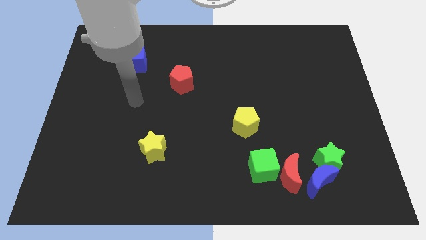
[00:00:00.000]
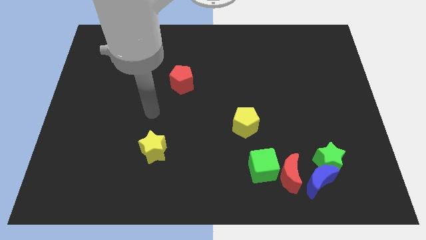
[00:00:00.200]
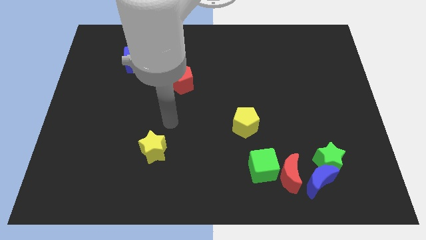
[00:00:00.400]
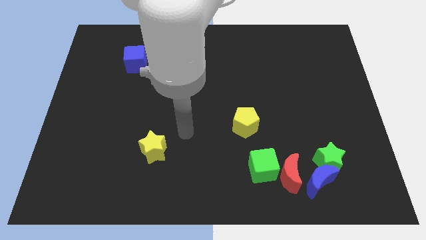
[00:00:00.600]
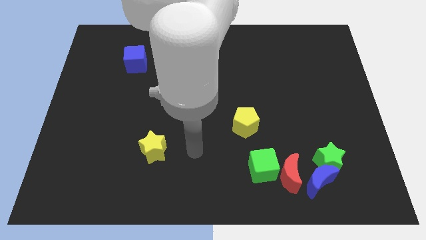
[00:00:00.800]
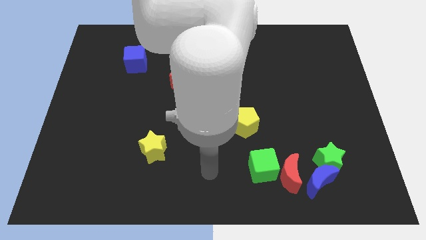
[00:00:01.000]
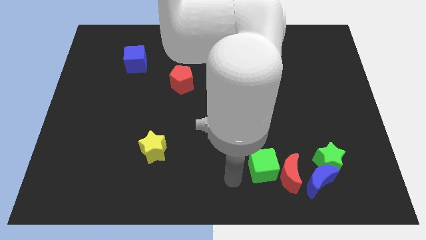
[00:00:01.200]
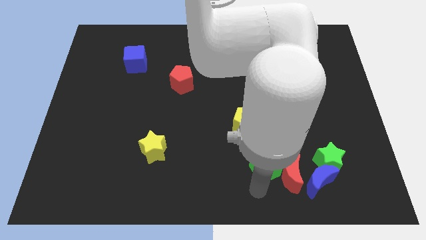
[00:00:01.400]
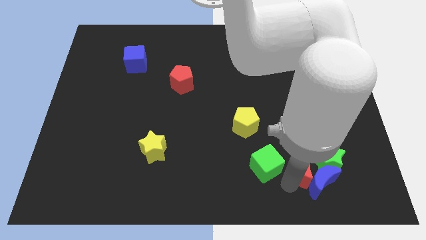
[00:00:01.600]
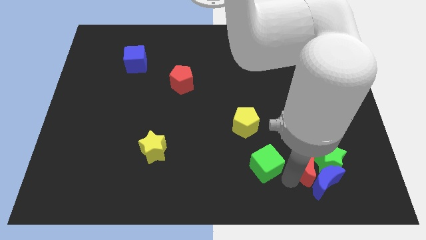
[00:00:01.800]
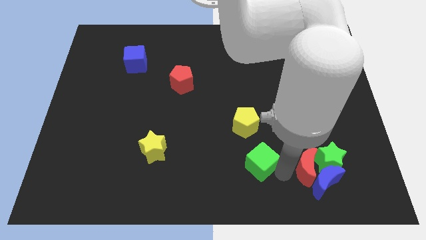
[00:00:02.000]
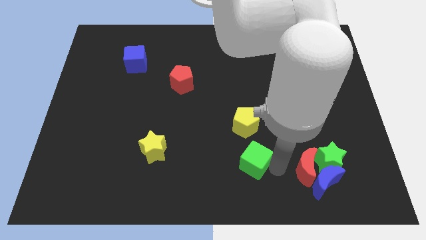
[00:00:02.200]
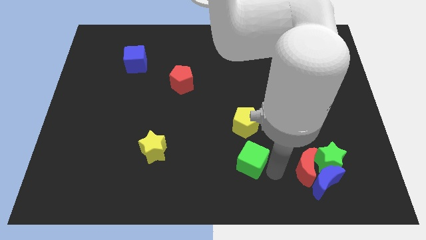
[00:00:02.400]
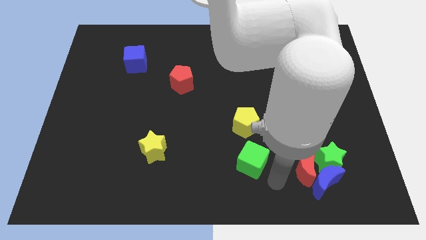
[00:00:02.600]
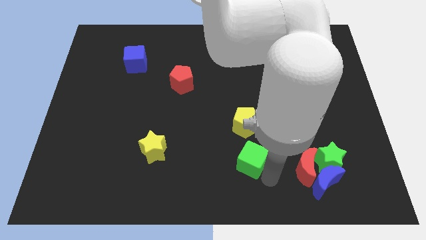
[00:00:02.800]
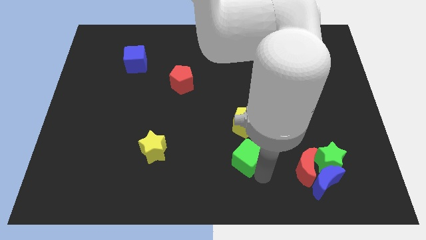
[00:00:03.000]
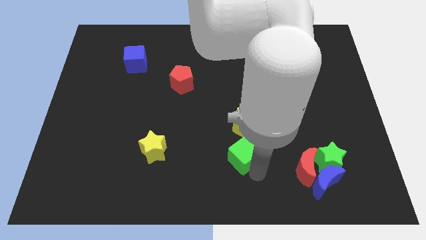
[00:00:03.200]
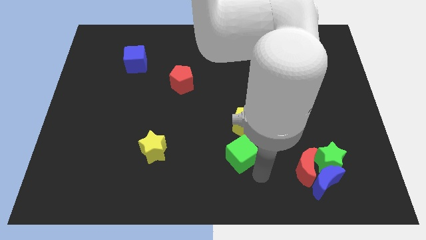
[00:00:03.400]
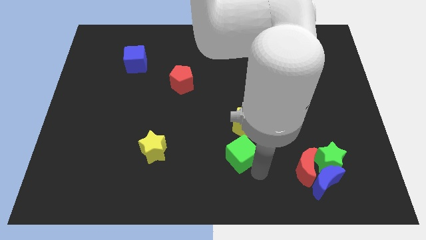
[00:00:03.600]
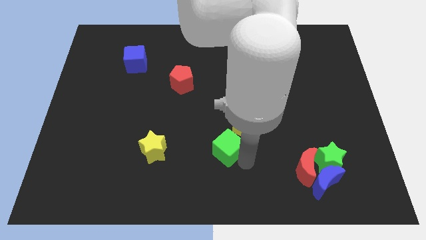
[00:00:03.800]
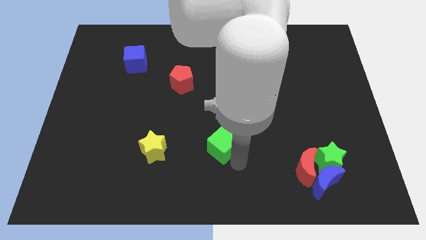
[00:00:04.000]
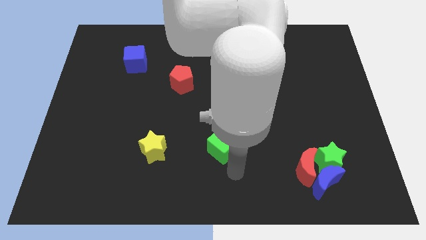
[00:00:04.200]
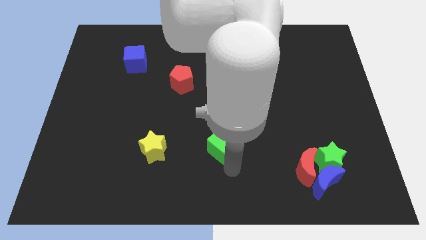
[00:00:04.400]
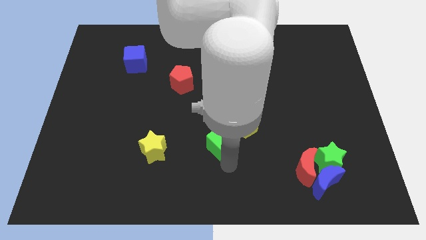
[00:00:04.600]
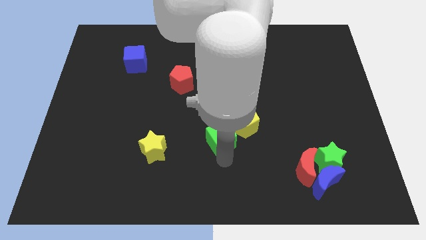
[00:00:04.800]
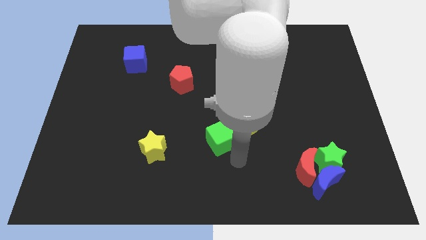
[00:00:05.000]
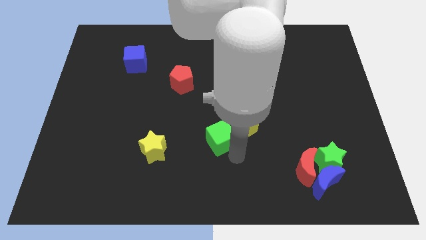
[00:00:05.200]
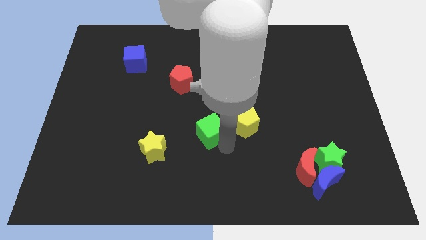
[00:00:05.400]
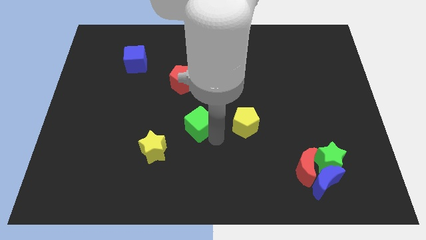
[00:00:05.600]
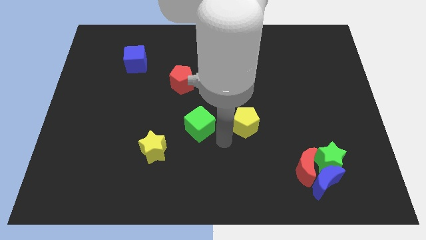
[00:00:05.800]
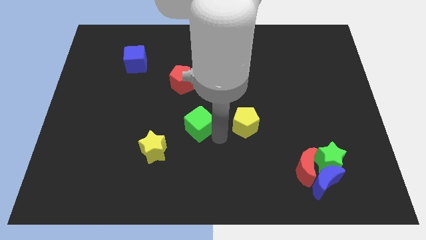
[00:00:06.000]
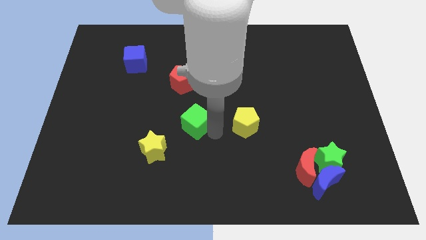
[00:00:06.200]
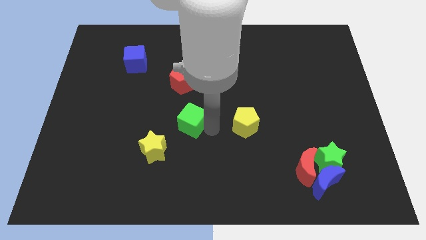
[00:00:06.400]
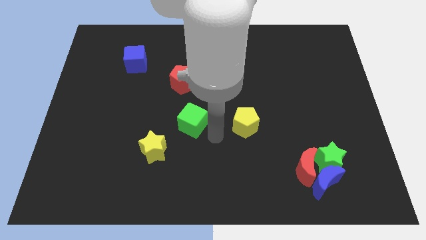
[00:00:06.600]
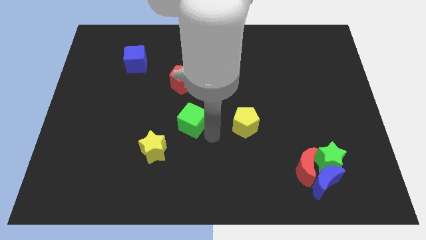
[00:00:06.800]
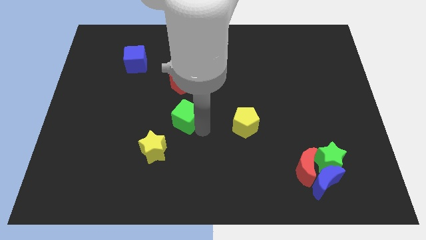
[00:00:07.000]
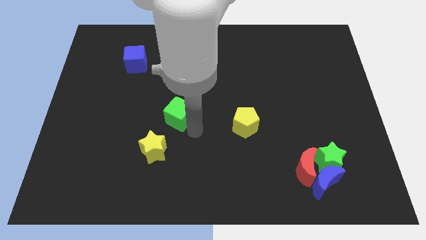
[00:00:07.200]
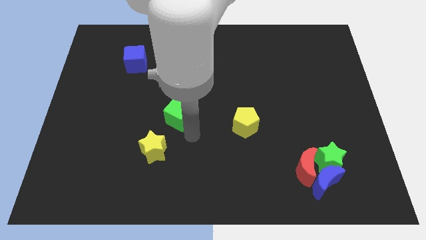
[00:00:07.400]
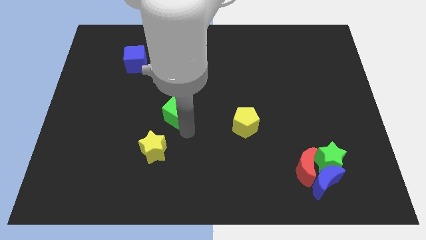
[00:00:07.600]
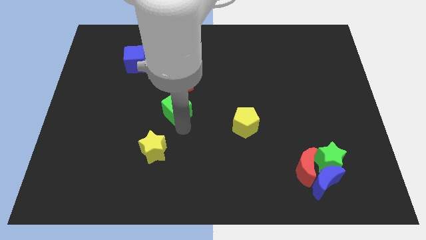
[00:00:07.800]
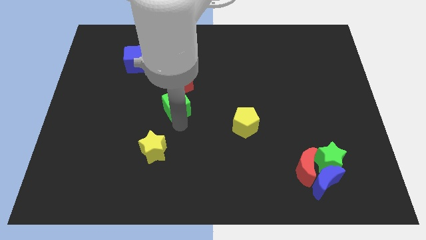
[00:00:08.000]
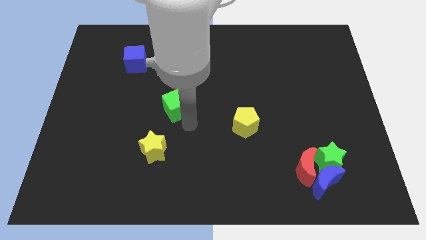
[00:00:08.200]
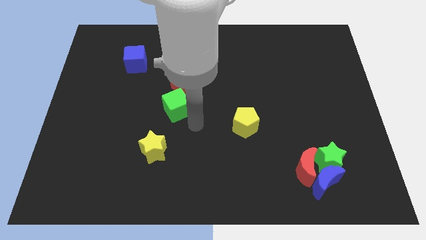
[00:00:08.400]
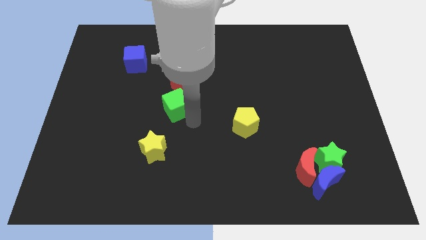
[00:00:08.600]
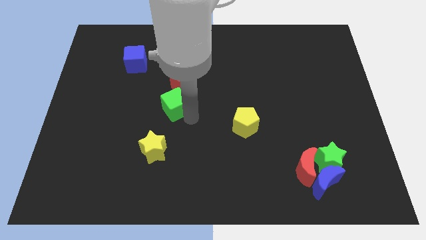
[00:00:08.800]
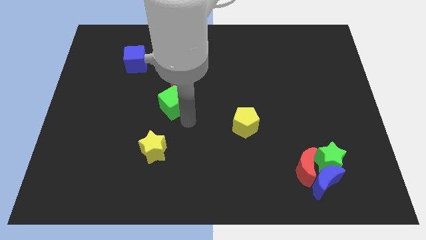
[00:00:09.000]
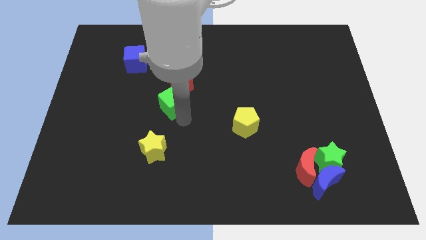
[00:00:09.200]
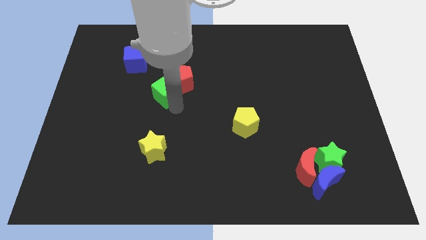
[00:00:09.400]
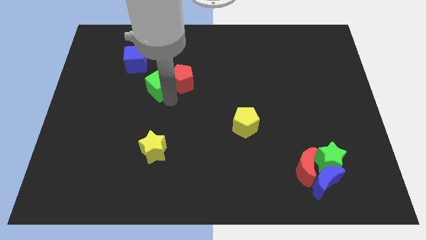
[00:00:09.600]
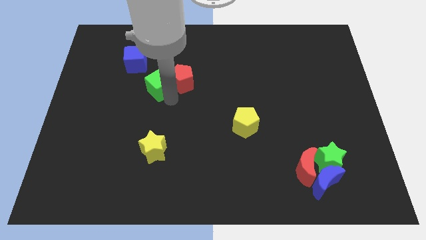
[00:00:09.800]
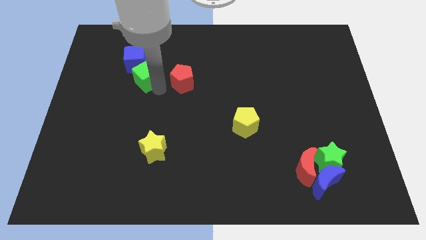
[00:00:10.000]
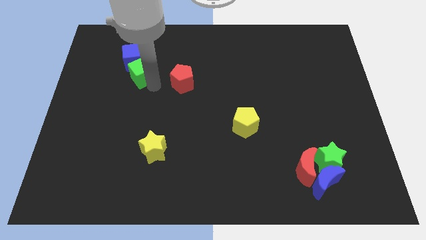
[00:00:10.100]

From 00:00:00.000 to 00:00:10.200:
put the green cube to the blue cube

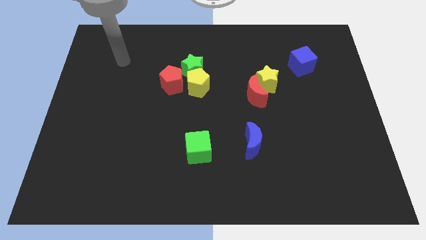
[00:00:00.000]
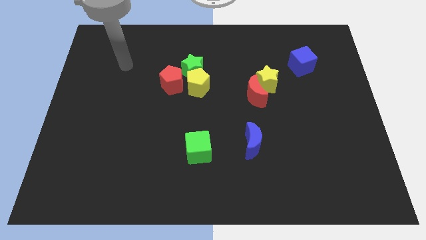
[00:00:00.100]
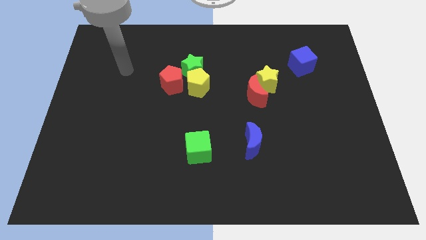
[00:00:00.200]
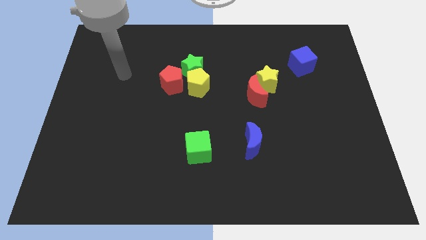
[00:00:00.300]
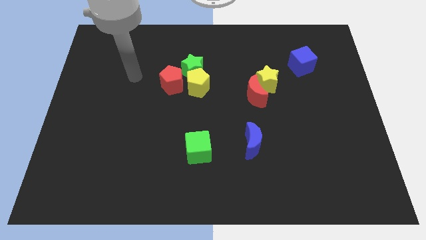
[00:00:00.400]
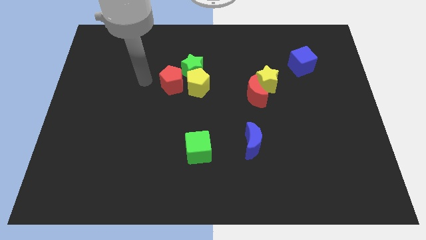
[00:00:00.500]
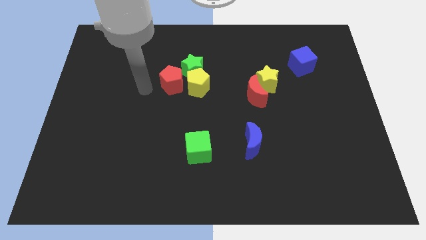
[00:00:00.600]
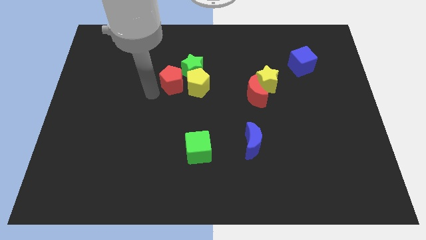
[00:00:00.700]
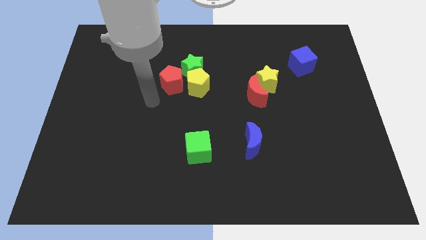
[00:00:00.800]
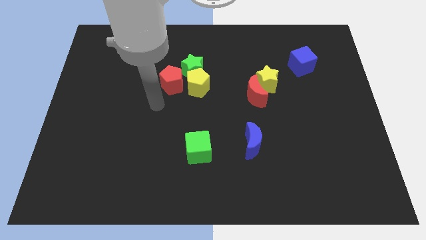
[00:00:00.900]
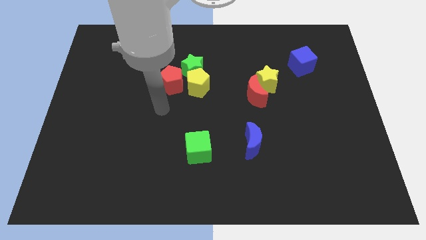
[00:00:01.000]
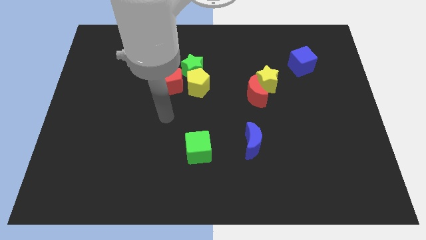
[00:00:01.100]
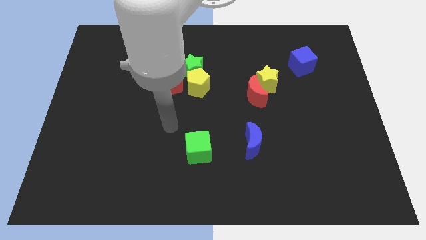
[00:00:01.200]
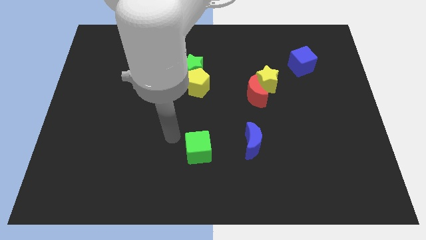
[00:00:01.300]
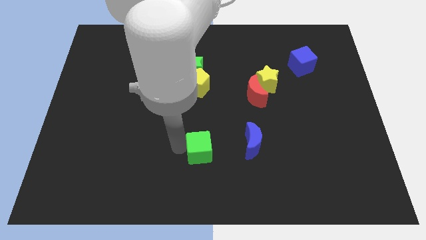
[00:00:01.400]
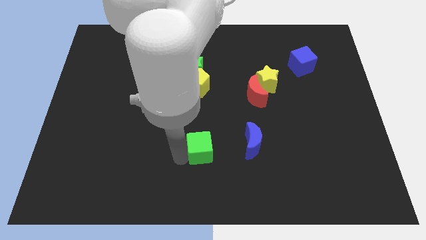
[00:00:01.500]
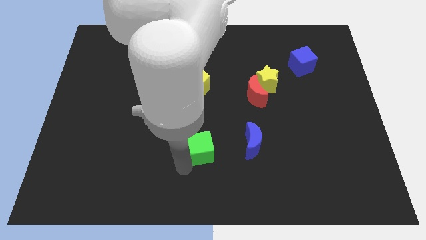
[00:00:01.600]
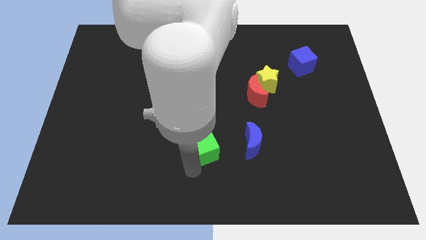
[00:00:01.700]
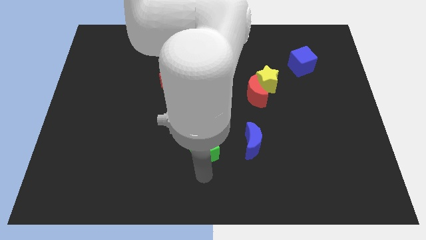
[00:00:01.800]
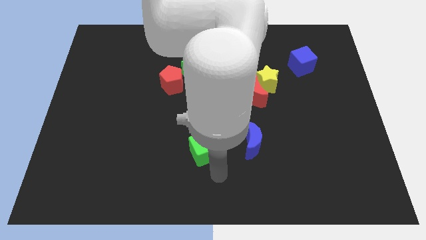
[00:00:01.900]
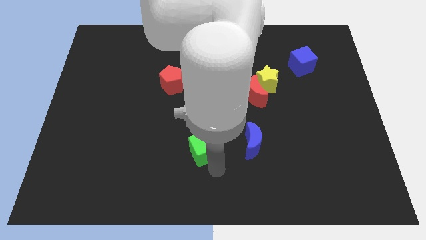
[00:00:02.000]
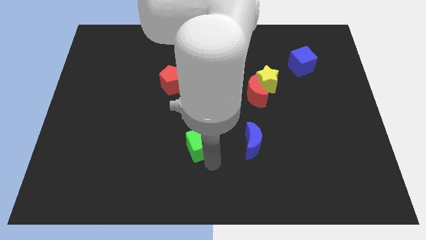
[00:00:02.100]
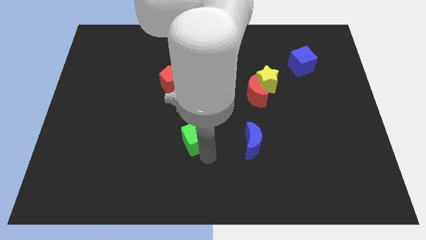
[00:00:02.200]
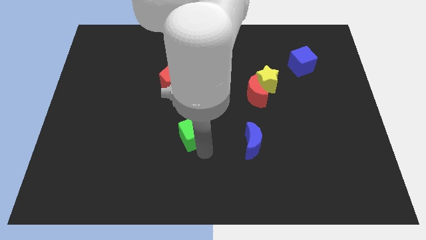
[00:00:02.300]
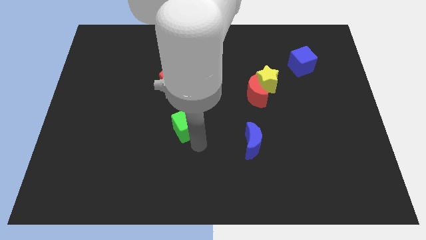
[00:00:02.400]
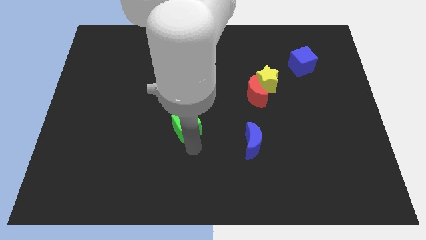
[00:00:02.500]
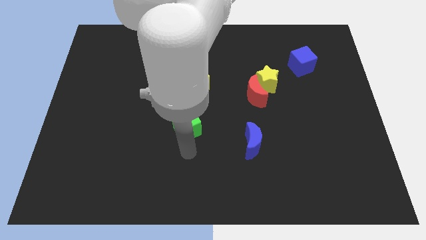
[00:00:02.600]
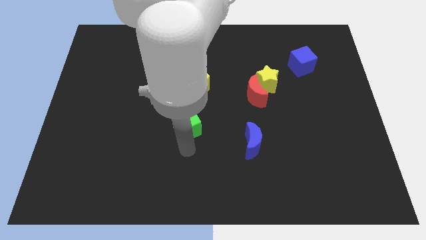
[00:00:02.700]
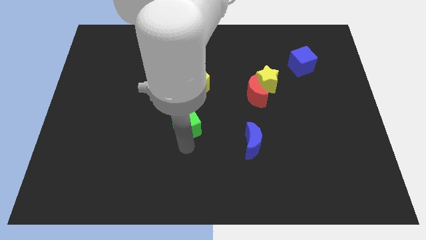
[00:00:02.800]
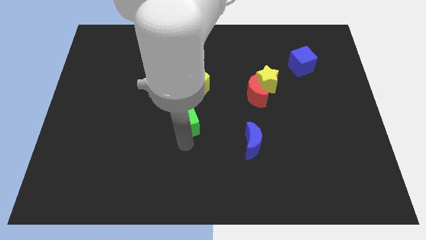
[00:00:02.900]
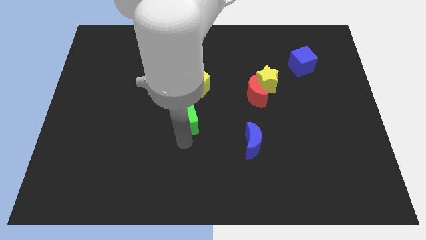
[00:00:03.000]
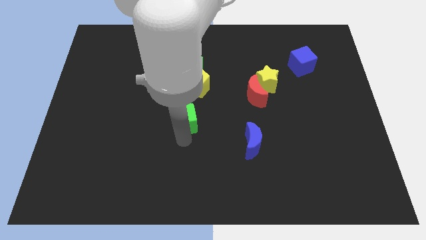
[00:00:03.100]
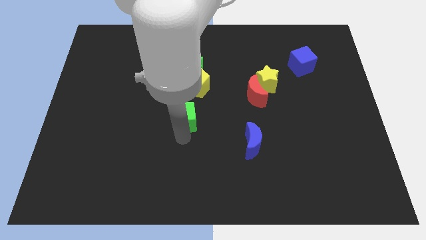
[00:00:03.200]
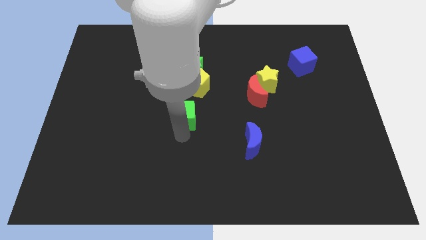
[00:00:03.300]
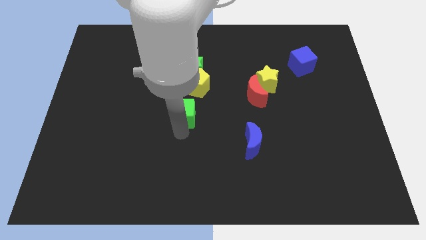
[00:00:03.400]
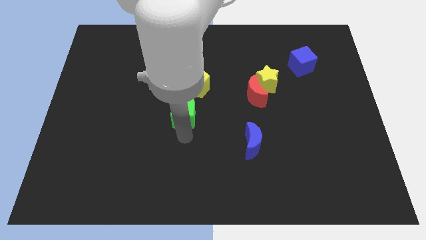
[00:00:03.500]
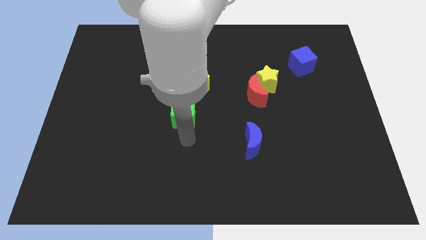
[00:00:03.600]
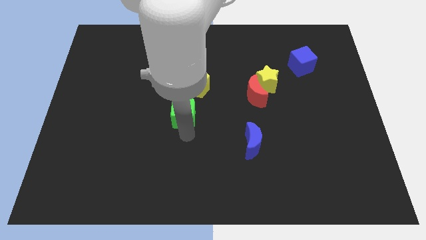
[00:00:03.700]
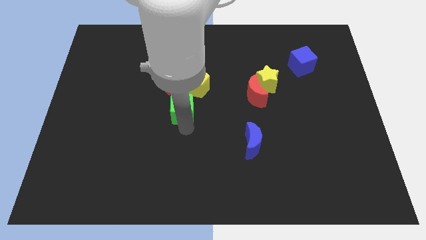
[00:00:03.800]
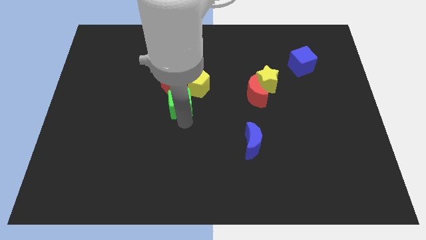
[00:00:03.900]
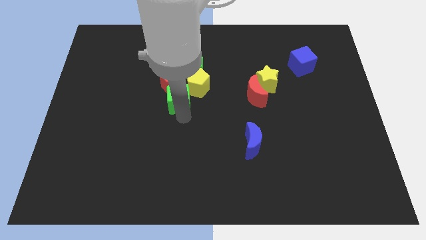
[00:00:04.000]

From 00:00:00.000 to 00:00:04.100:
slide the green cube next to the red pentagon
